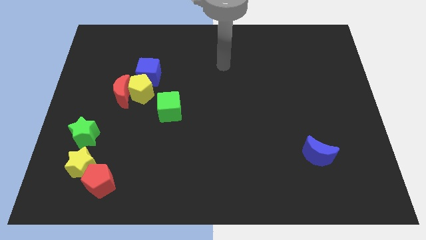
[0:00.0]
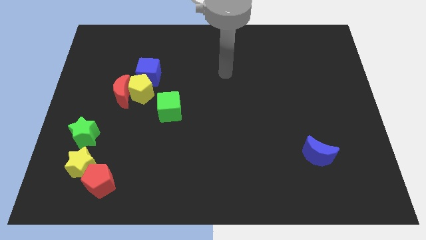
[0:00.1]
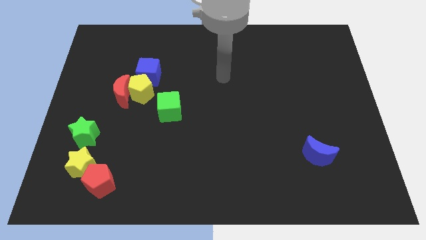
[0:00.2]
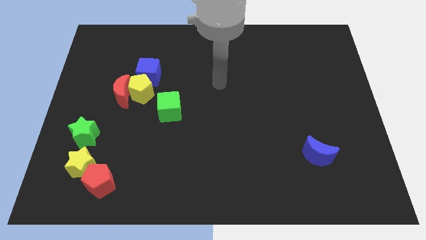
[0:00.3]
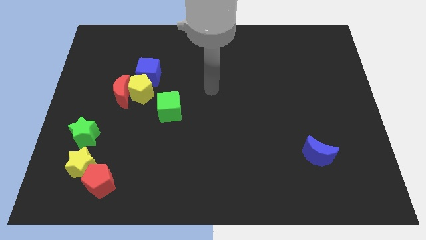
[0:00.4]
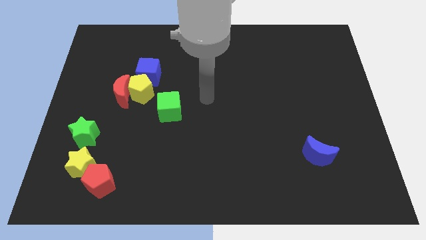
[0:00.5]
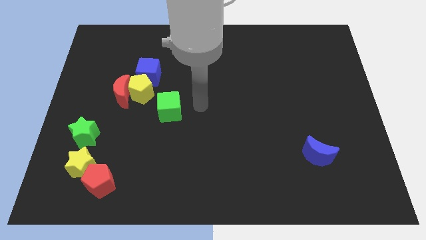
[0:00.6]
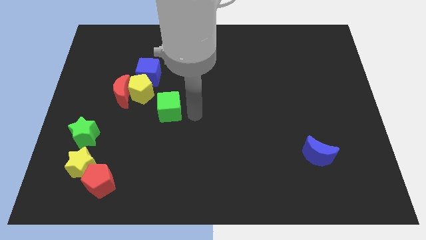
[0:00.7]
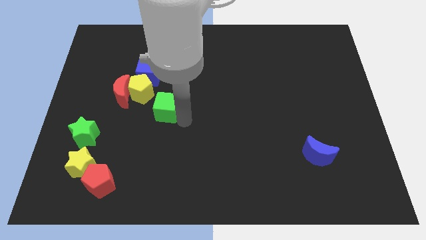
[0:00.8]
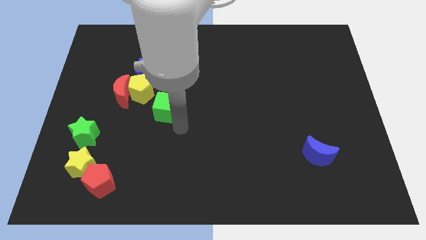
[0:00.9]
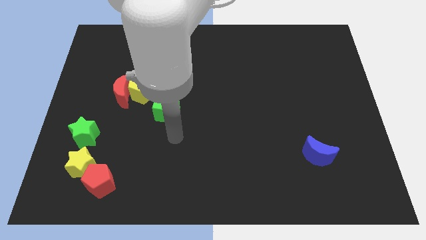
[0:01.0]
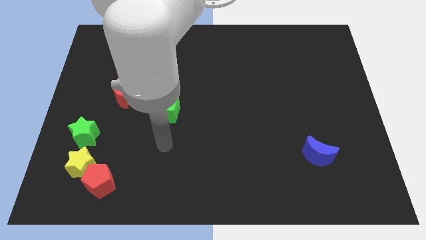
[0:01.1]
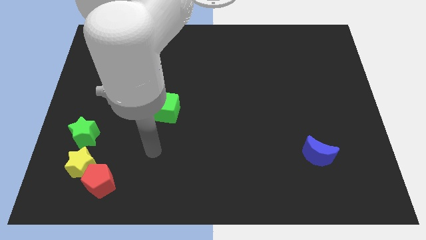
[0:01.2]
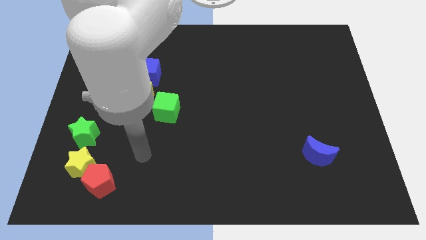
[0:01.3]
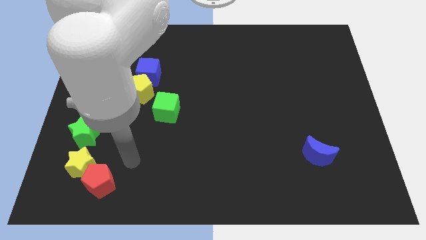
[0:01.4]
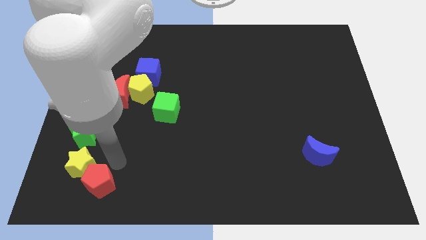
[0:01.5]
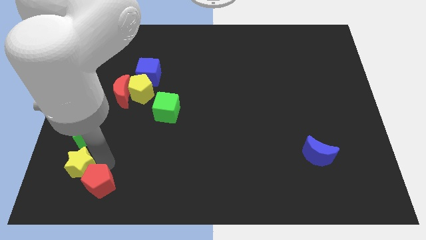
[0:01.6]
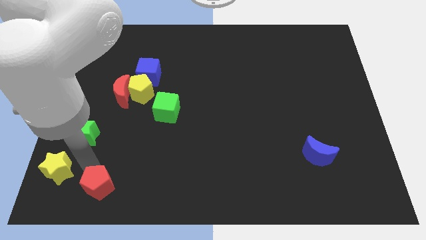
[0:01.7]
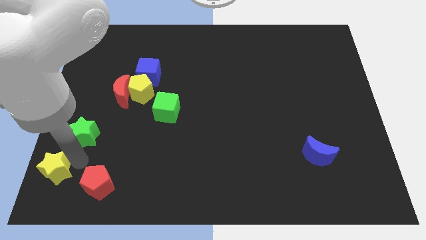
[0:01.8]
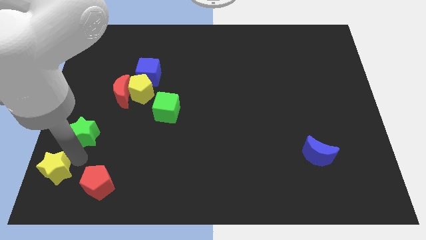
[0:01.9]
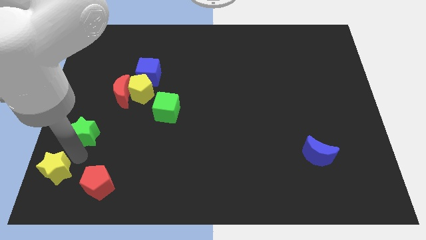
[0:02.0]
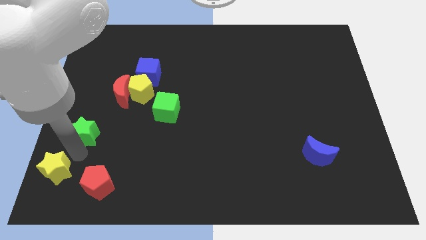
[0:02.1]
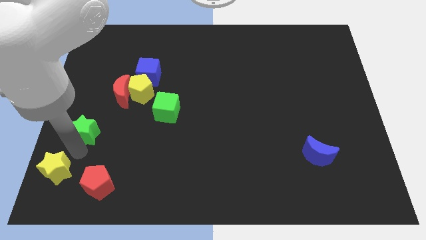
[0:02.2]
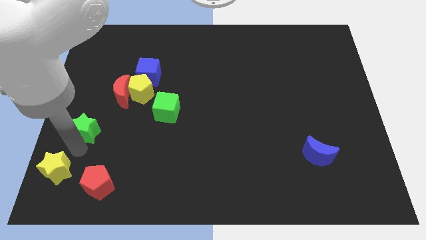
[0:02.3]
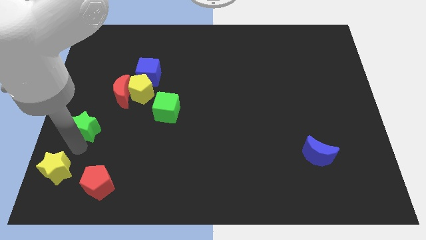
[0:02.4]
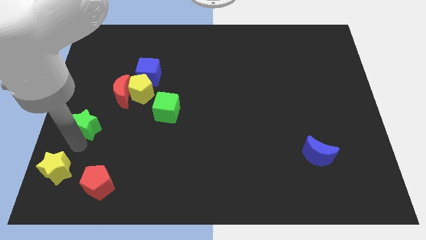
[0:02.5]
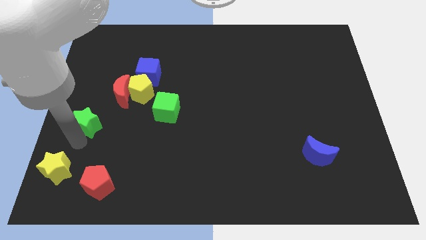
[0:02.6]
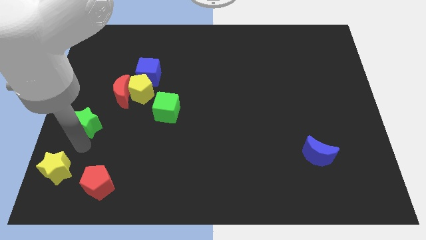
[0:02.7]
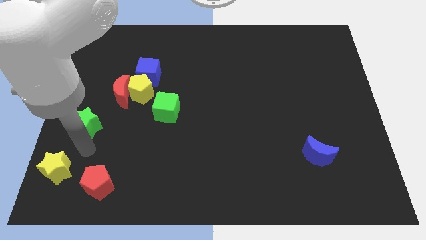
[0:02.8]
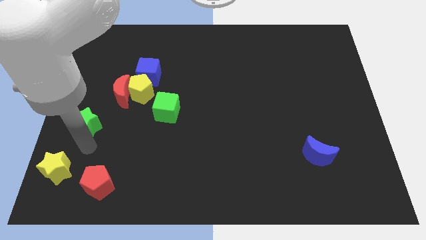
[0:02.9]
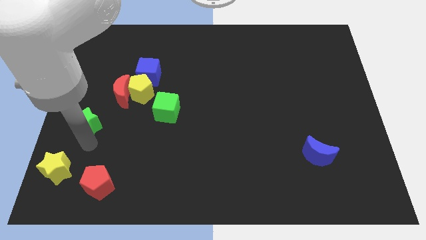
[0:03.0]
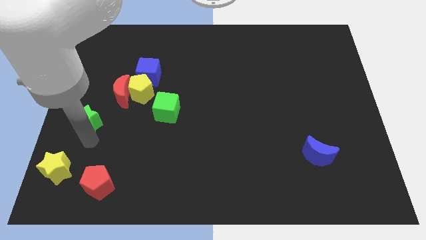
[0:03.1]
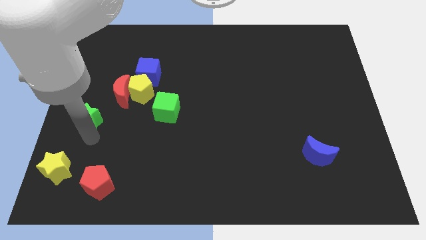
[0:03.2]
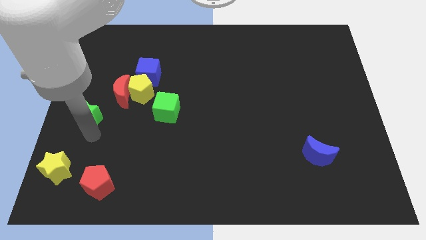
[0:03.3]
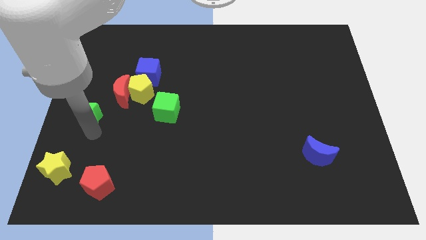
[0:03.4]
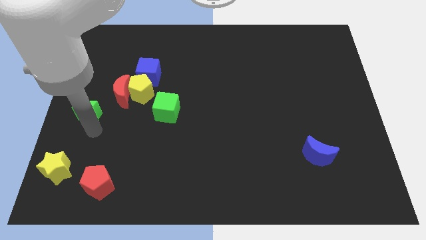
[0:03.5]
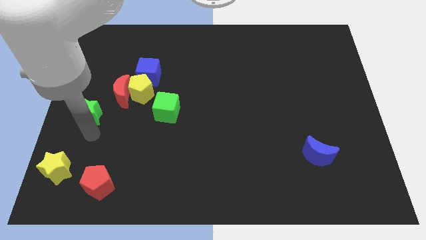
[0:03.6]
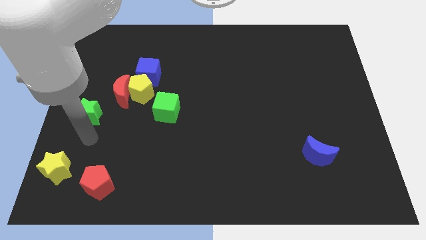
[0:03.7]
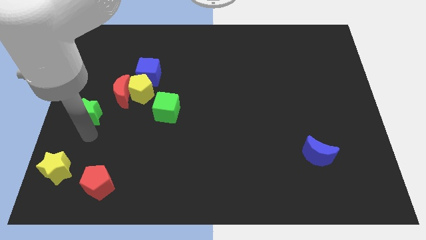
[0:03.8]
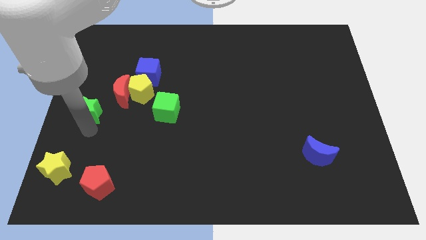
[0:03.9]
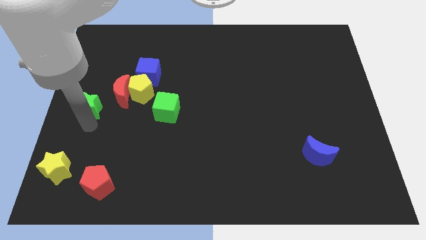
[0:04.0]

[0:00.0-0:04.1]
slide the green star a little upwards

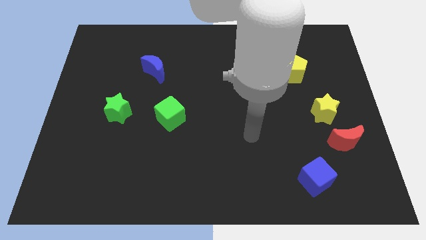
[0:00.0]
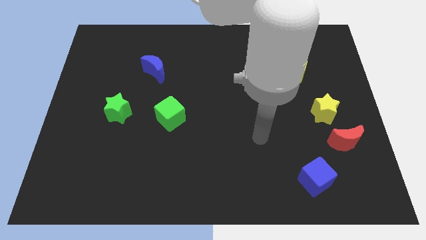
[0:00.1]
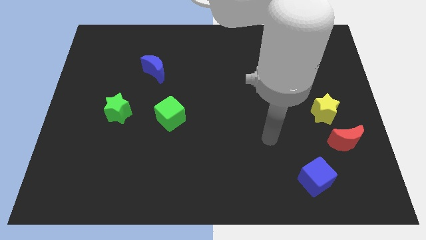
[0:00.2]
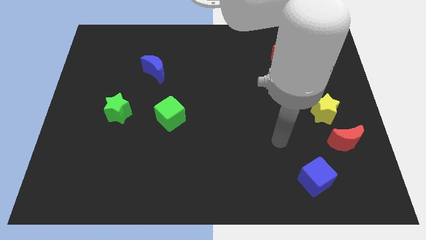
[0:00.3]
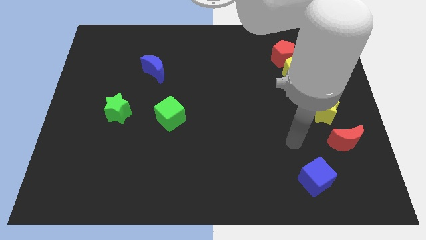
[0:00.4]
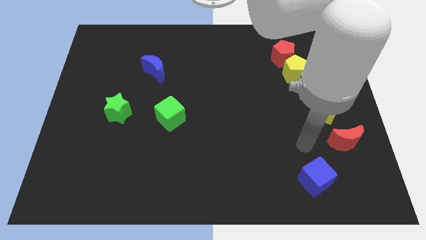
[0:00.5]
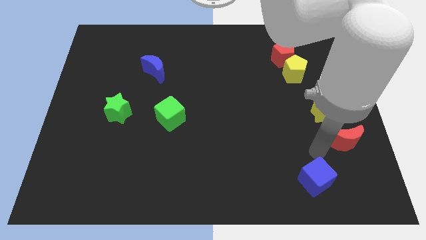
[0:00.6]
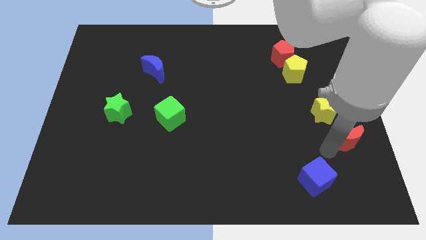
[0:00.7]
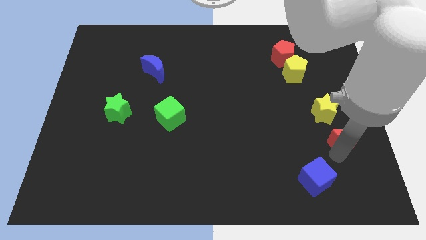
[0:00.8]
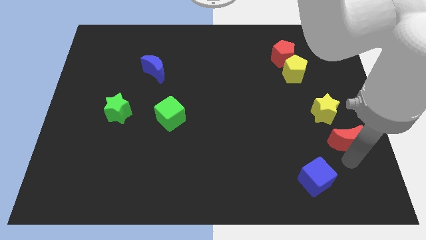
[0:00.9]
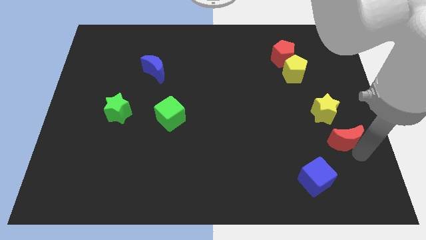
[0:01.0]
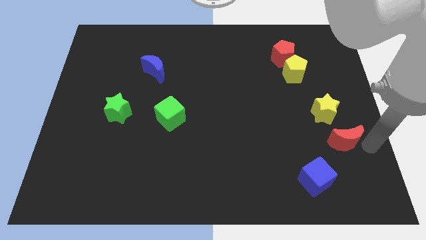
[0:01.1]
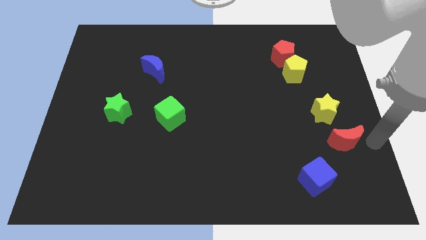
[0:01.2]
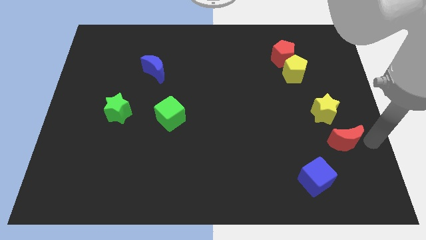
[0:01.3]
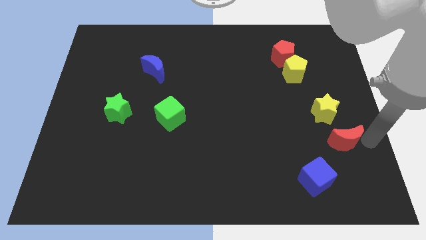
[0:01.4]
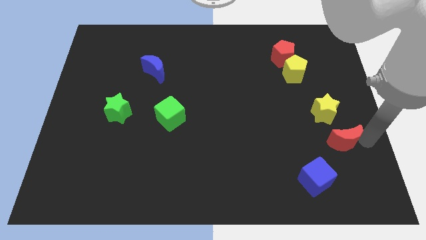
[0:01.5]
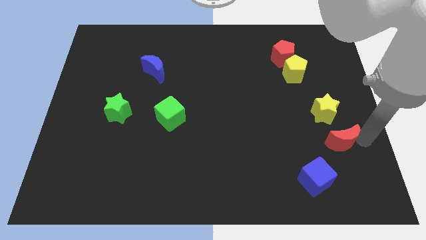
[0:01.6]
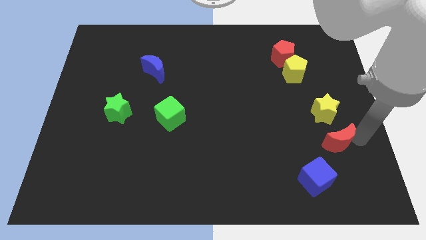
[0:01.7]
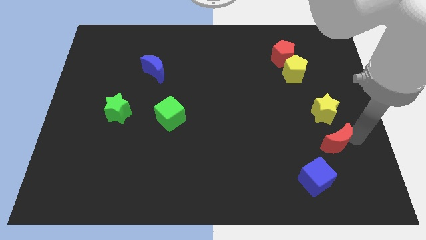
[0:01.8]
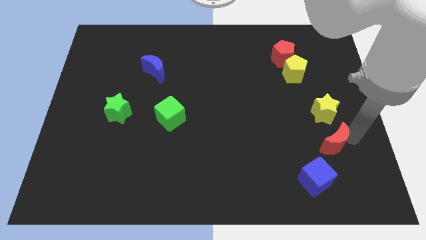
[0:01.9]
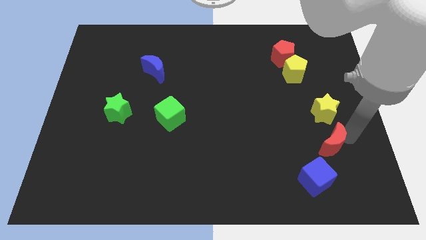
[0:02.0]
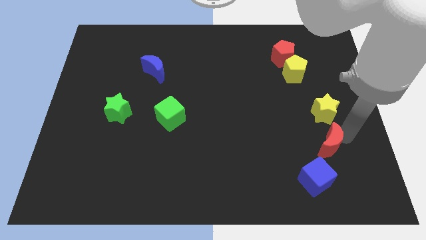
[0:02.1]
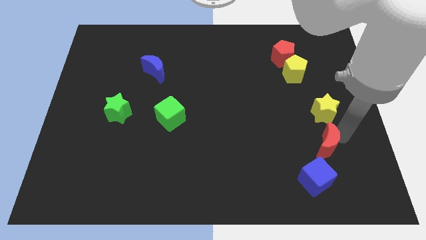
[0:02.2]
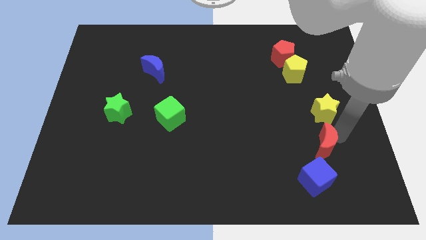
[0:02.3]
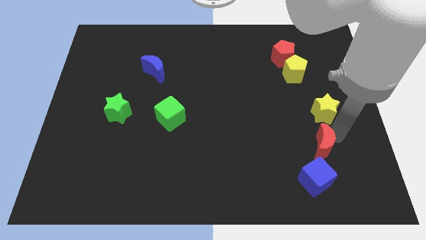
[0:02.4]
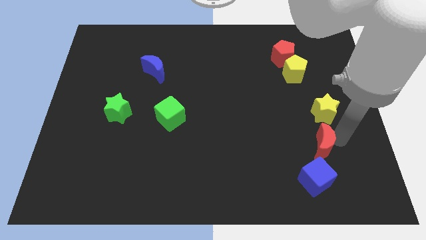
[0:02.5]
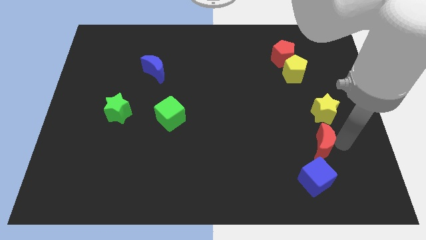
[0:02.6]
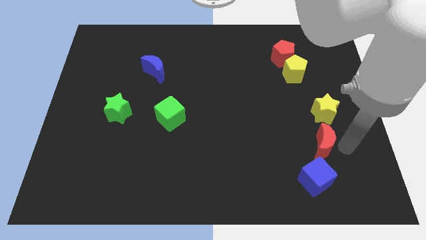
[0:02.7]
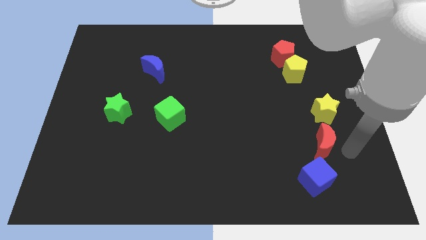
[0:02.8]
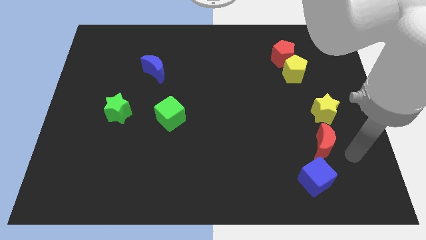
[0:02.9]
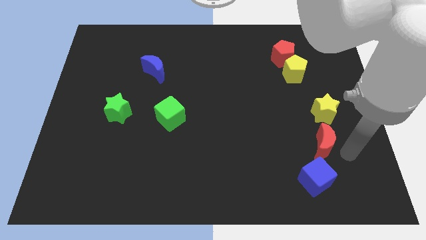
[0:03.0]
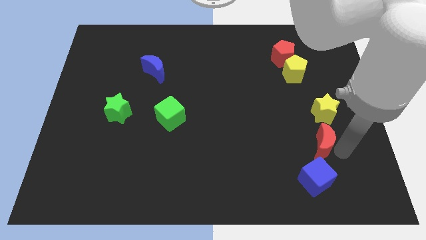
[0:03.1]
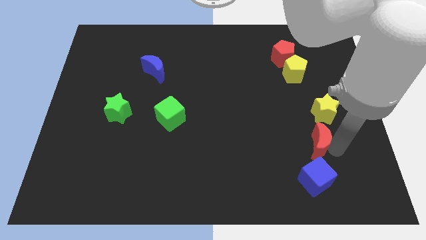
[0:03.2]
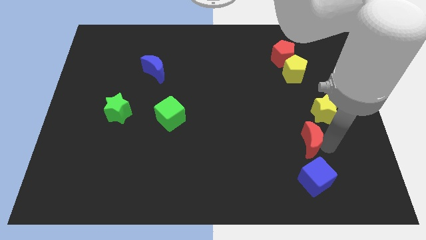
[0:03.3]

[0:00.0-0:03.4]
slightly move the red moon left

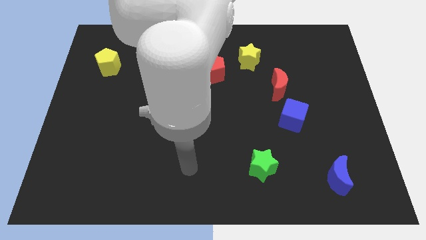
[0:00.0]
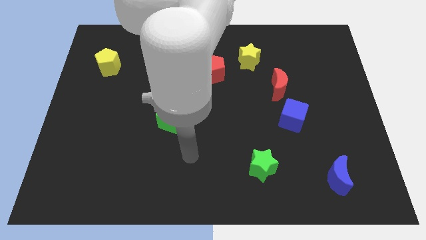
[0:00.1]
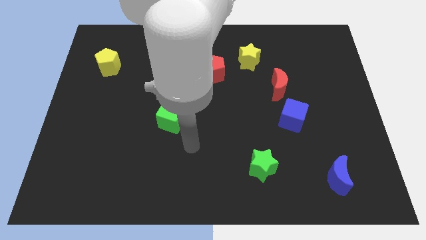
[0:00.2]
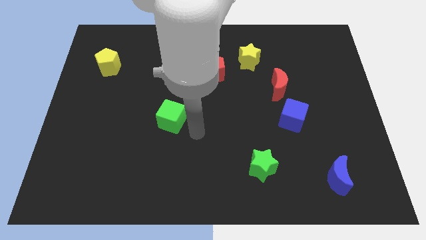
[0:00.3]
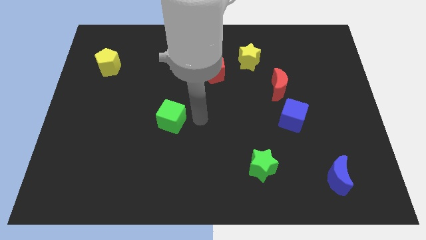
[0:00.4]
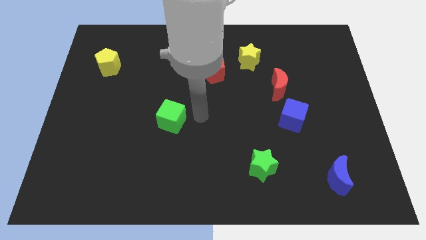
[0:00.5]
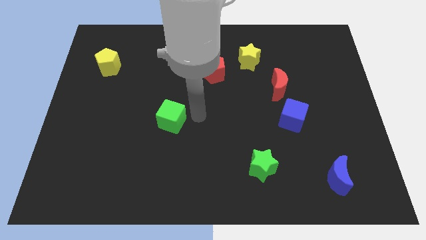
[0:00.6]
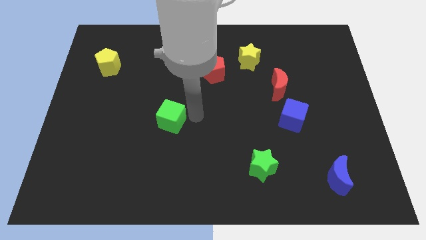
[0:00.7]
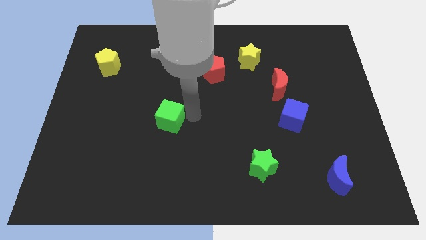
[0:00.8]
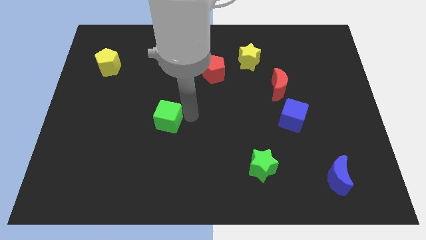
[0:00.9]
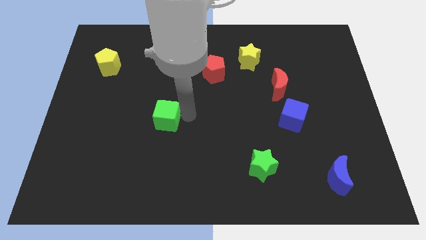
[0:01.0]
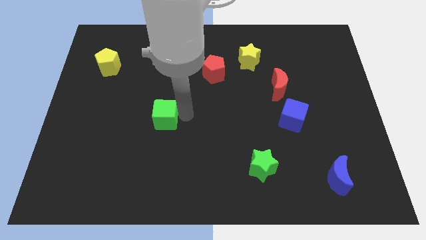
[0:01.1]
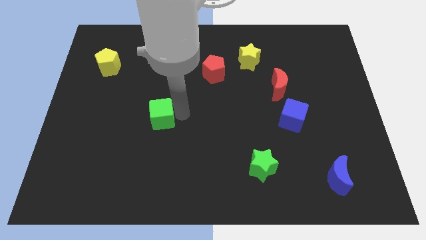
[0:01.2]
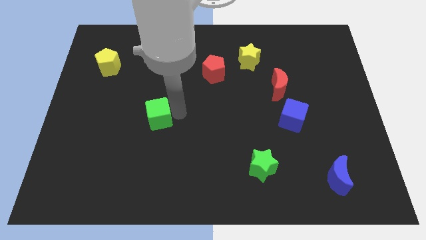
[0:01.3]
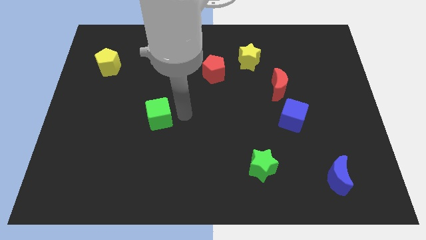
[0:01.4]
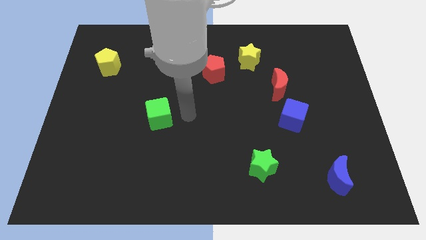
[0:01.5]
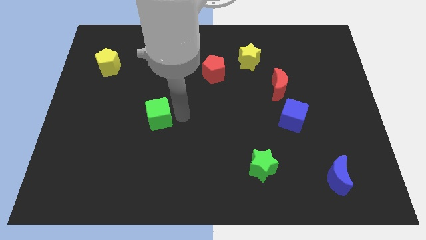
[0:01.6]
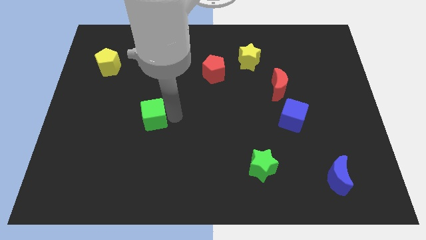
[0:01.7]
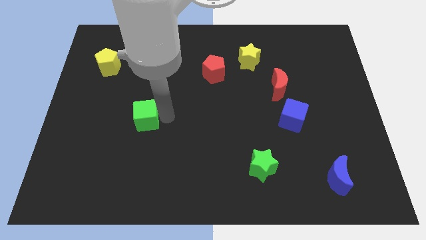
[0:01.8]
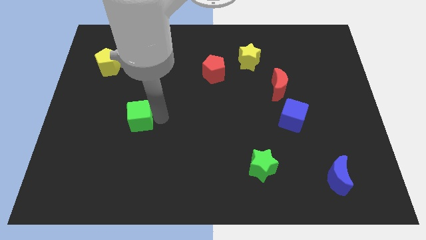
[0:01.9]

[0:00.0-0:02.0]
move the green cube left slightly
